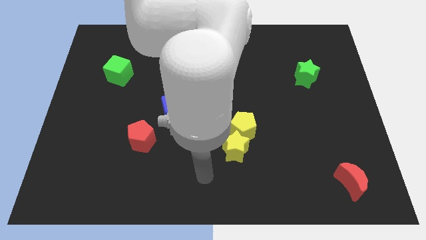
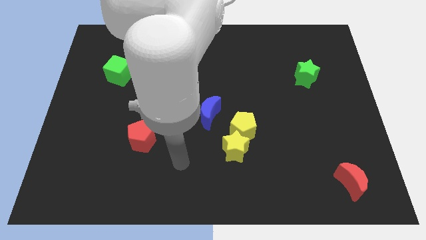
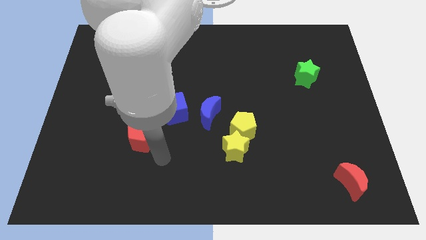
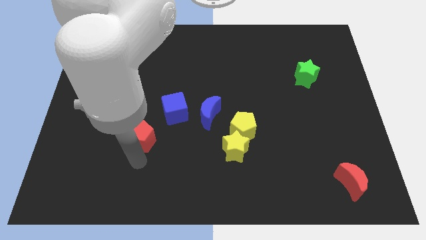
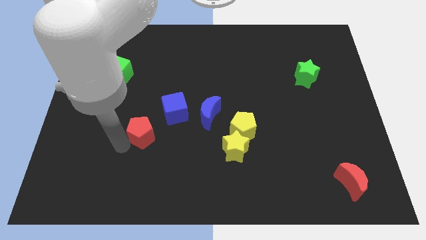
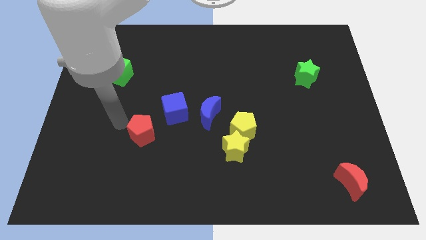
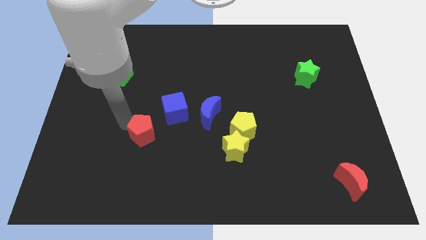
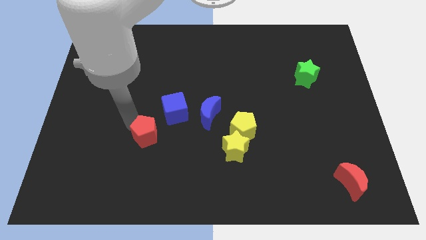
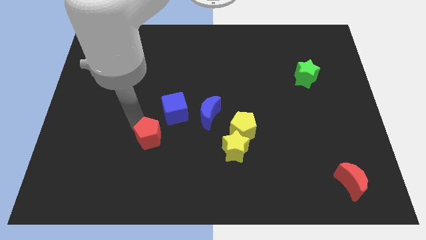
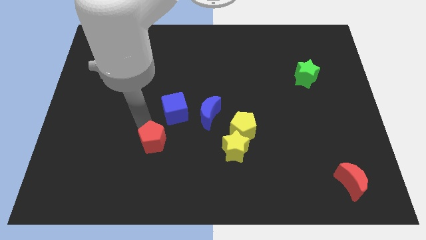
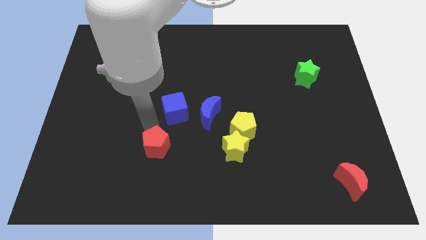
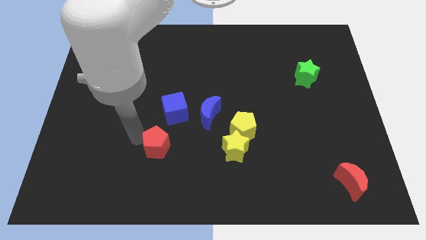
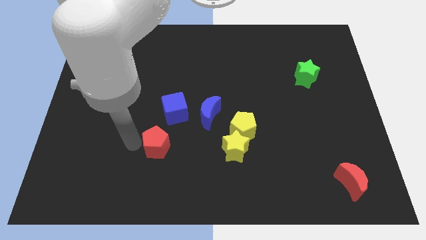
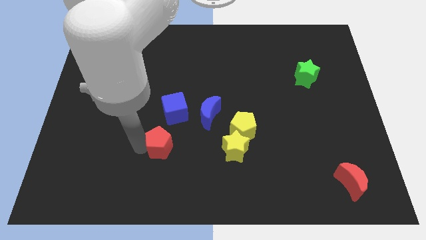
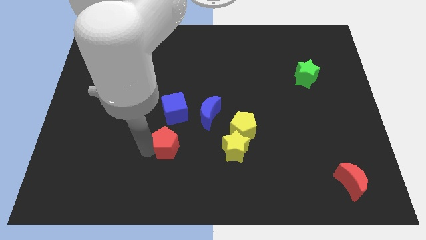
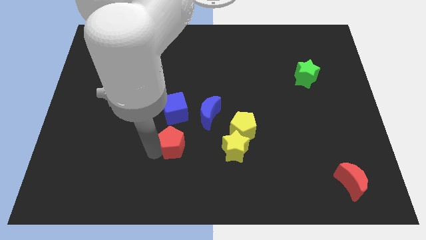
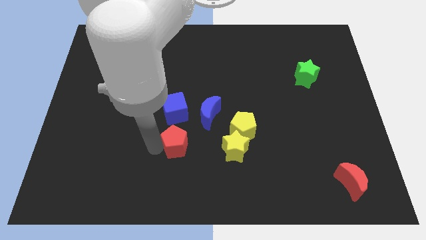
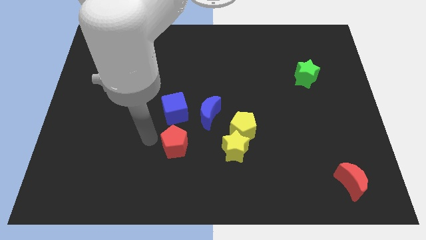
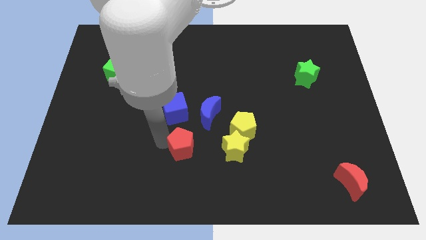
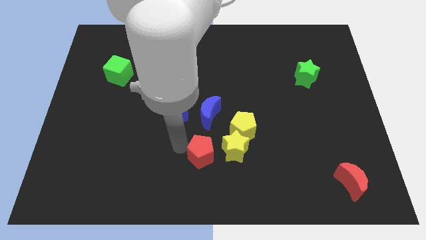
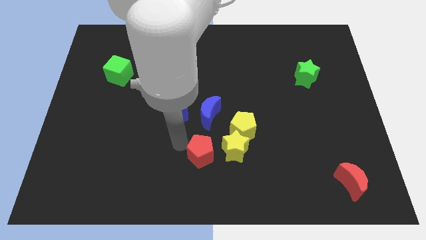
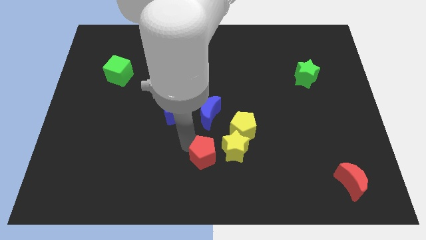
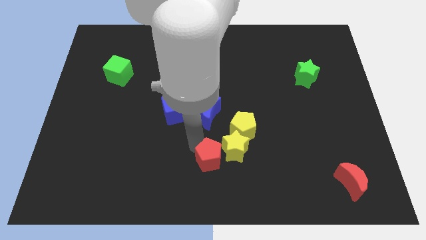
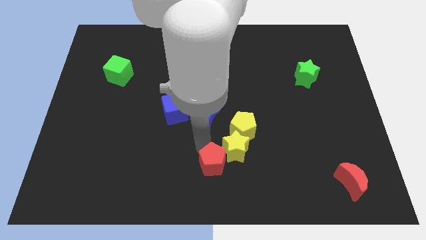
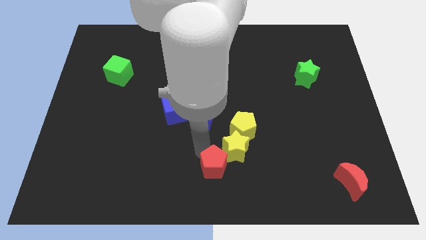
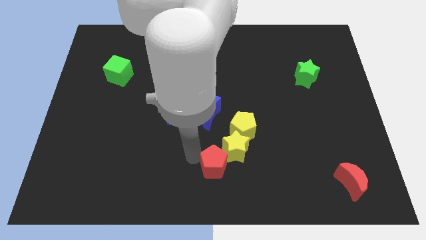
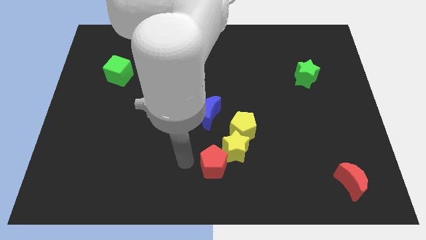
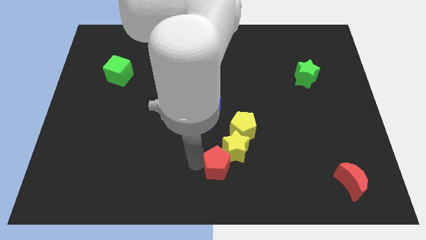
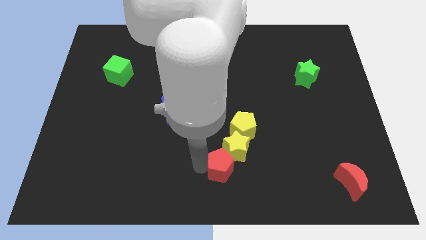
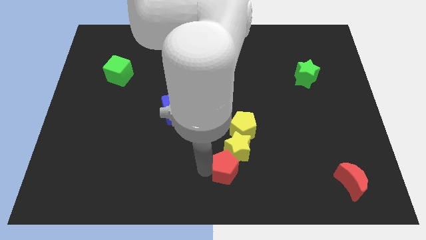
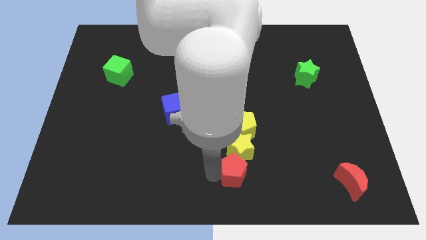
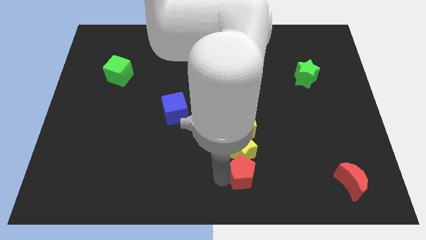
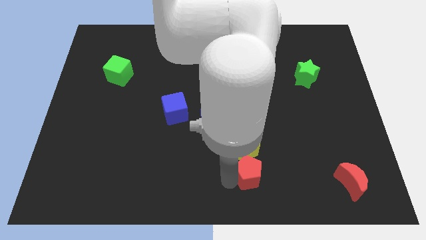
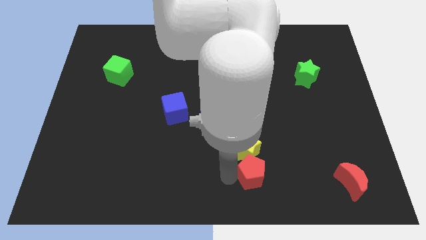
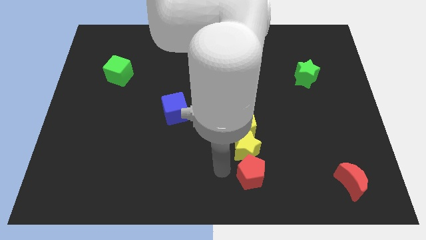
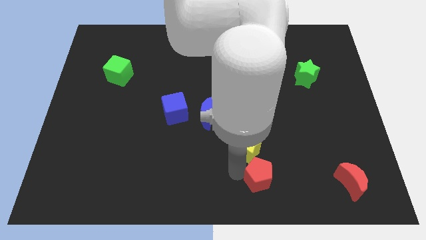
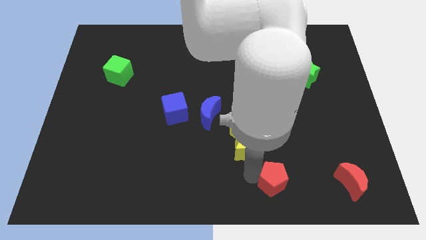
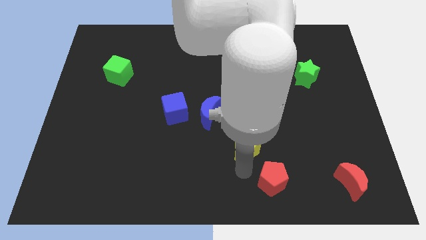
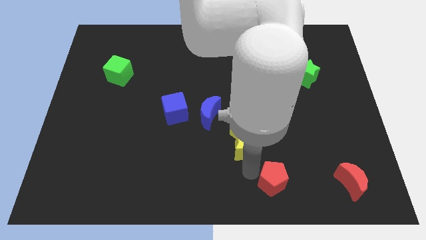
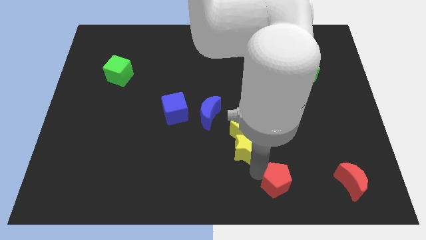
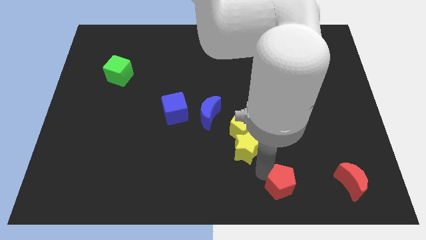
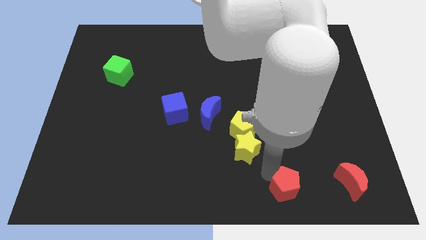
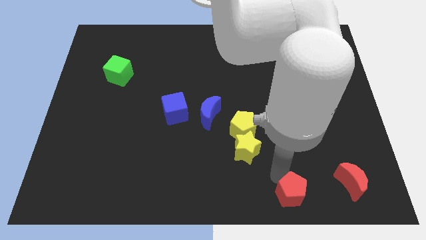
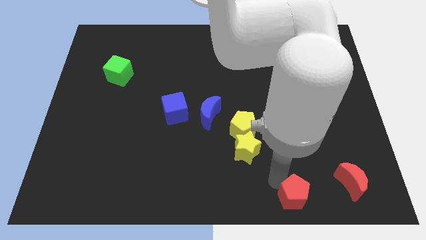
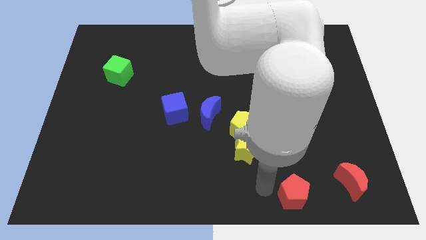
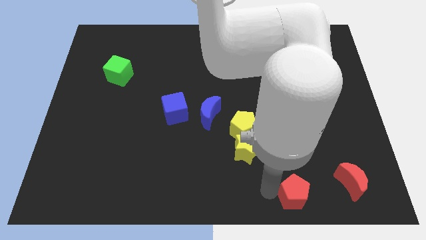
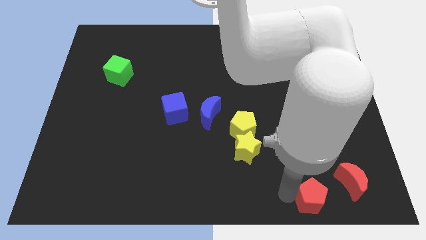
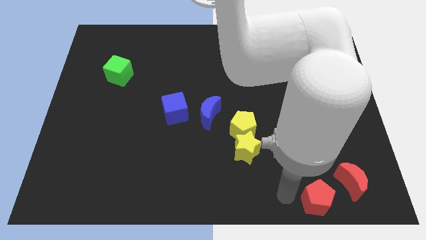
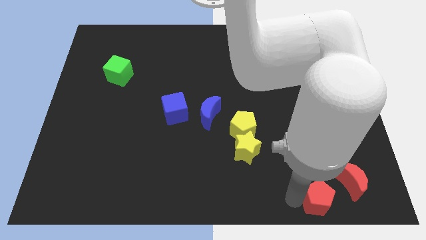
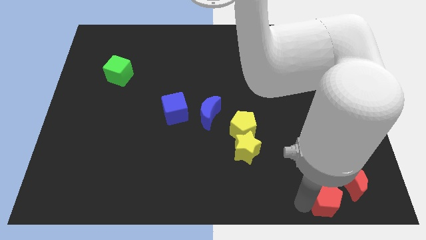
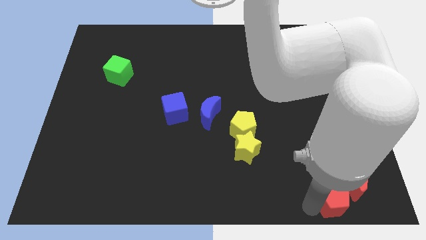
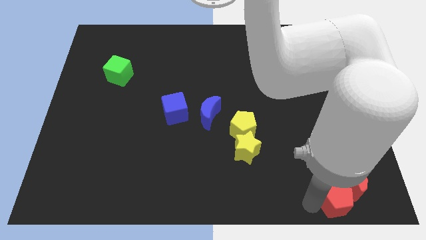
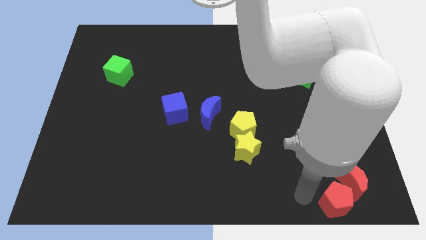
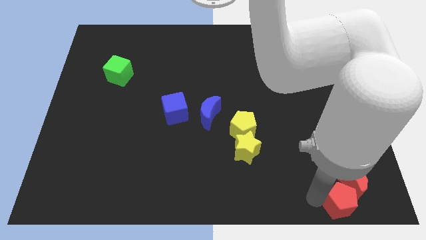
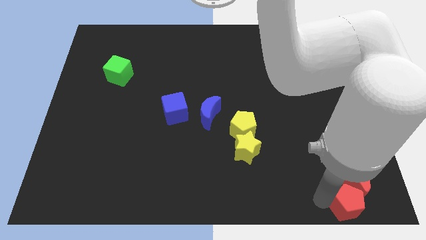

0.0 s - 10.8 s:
put the red pentagon to the lower right corner
